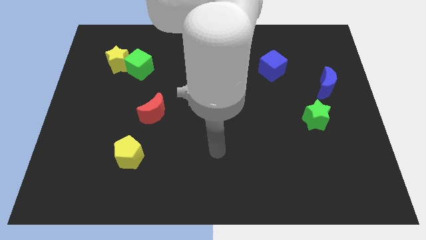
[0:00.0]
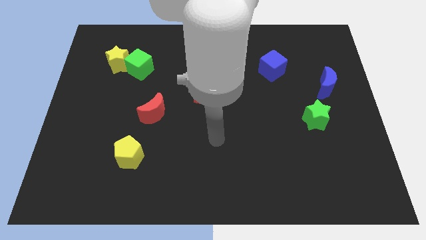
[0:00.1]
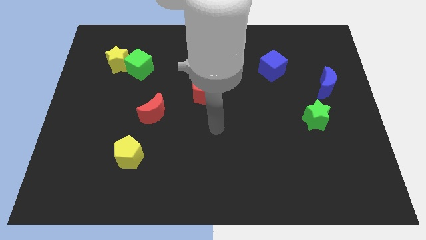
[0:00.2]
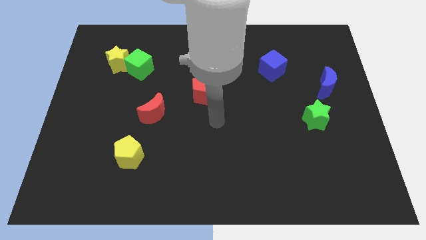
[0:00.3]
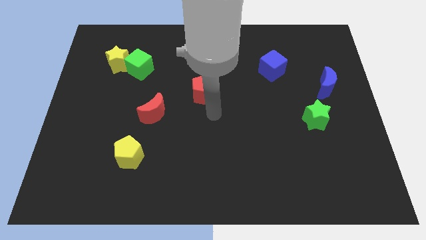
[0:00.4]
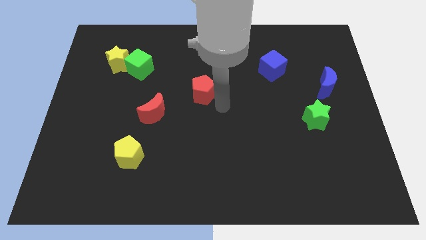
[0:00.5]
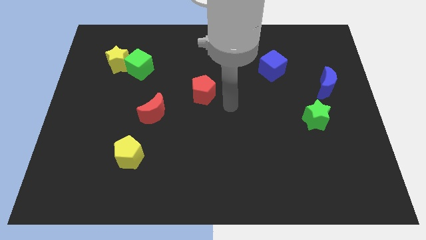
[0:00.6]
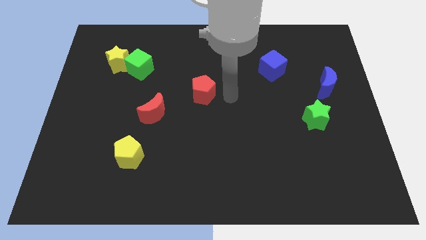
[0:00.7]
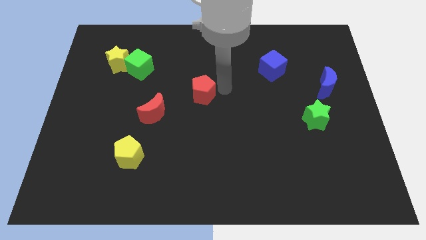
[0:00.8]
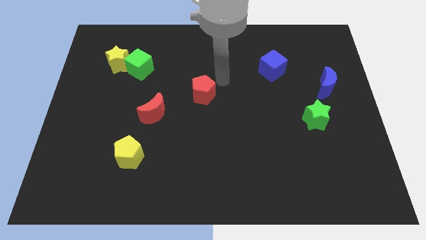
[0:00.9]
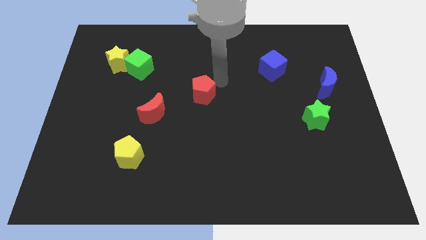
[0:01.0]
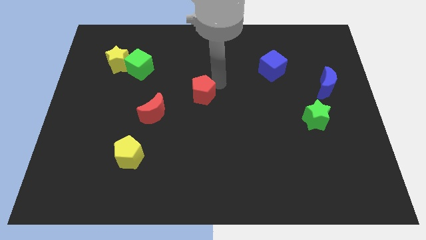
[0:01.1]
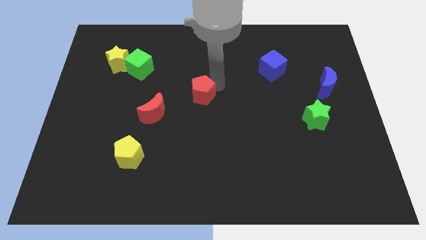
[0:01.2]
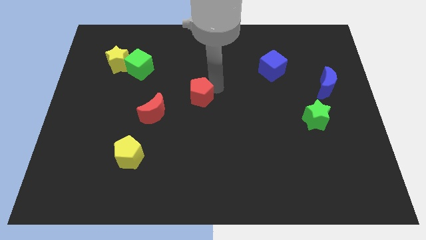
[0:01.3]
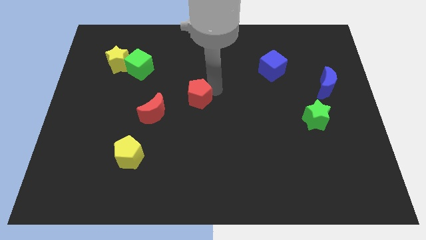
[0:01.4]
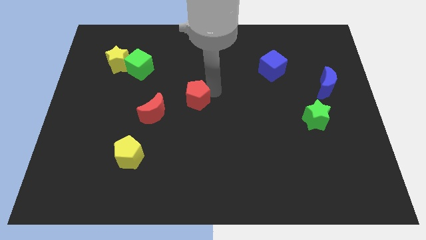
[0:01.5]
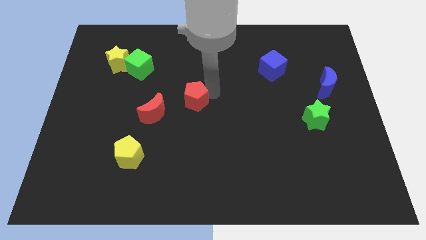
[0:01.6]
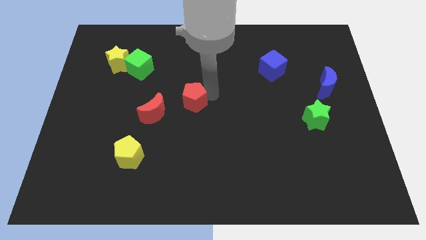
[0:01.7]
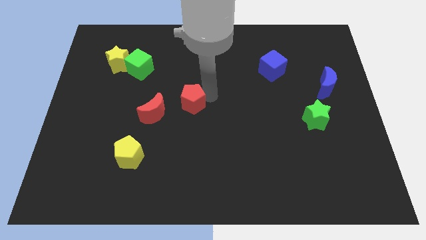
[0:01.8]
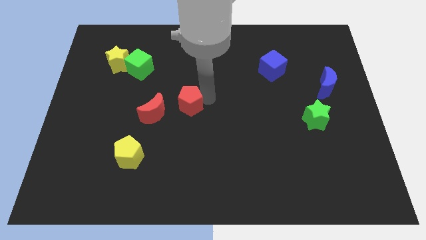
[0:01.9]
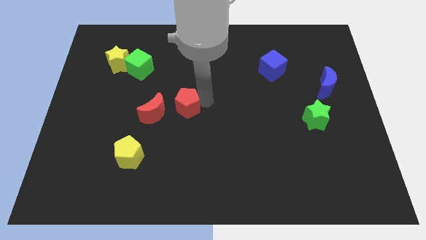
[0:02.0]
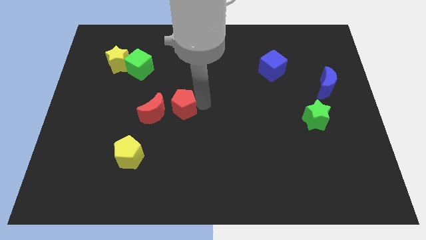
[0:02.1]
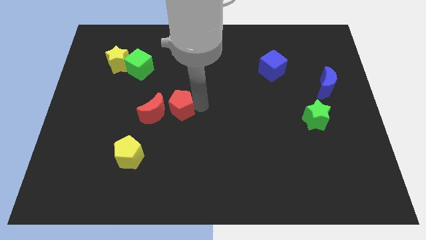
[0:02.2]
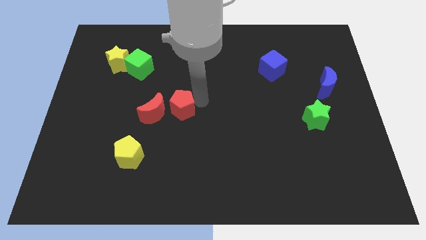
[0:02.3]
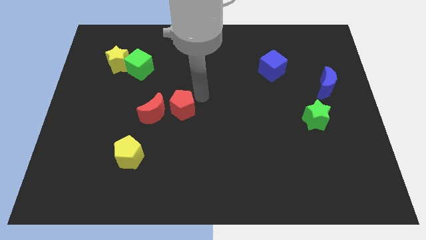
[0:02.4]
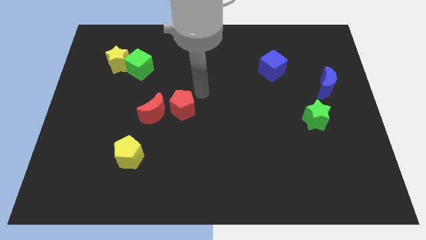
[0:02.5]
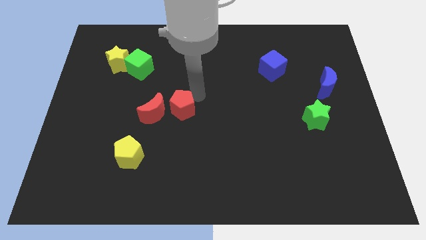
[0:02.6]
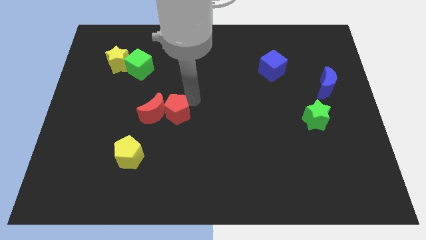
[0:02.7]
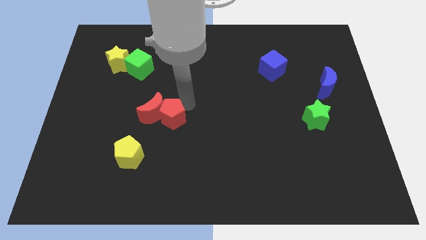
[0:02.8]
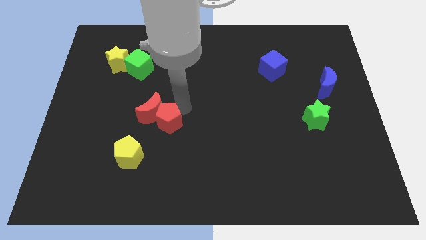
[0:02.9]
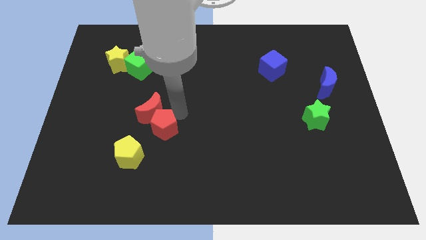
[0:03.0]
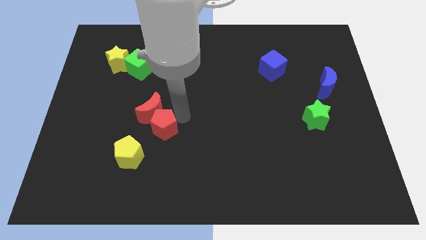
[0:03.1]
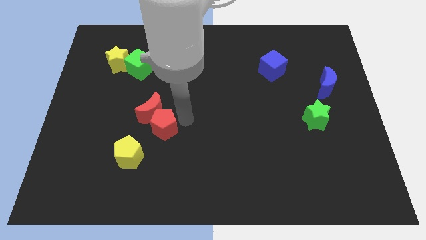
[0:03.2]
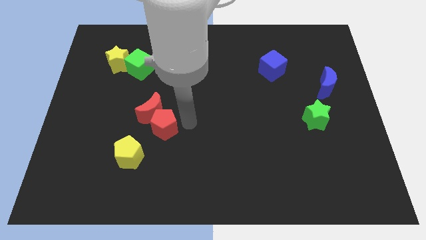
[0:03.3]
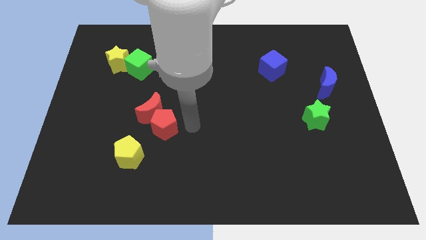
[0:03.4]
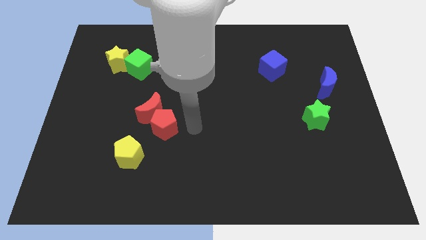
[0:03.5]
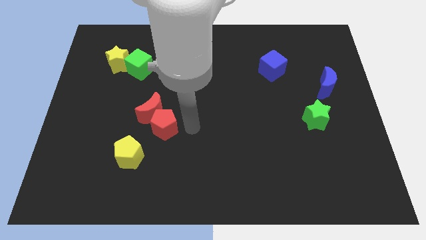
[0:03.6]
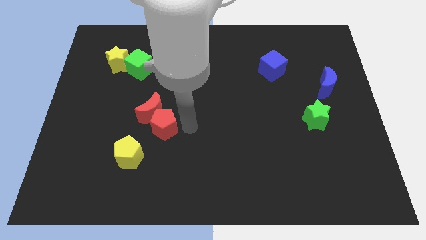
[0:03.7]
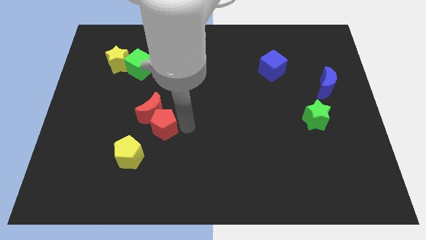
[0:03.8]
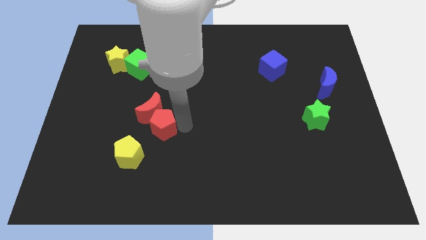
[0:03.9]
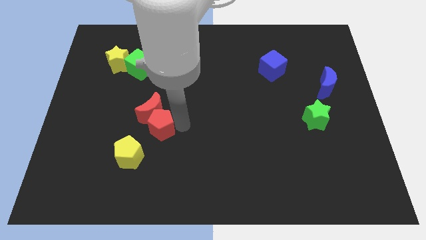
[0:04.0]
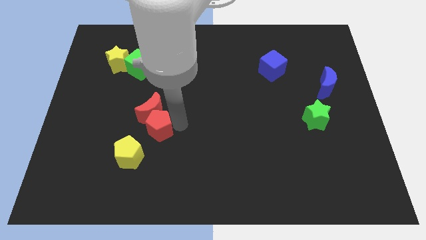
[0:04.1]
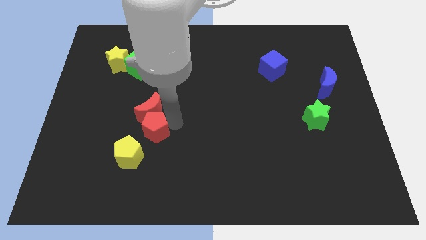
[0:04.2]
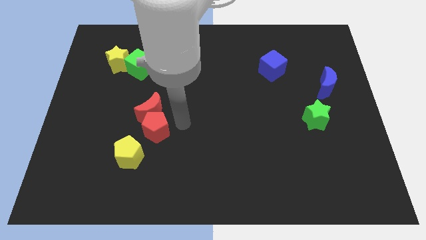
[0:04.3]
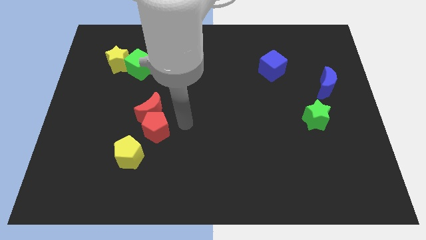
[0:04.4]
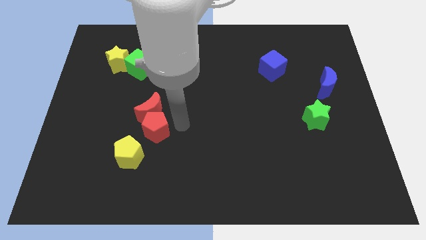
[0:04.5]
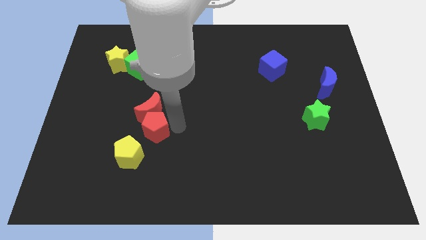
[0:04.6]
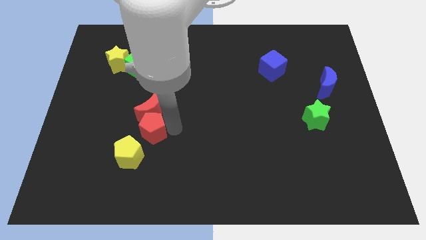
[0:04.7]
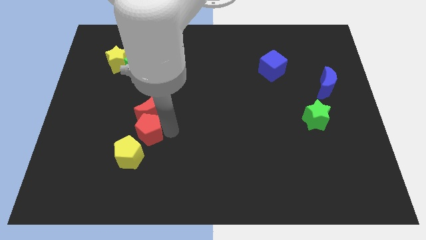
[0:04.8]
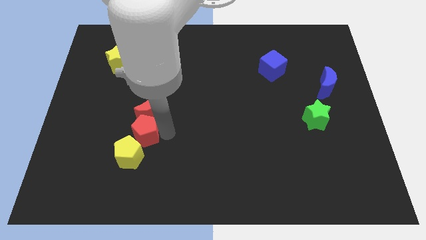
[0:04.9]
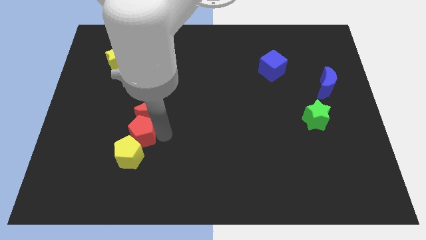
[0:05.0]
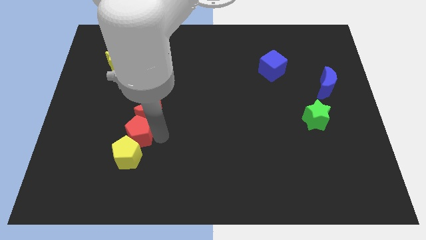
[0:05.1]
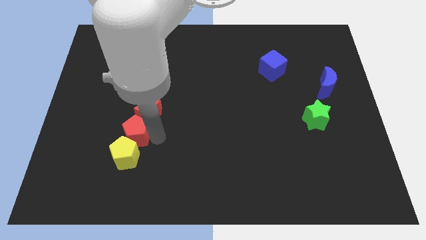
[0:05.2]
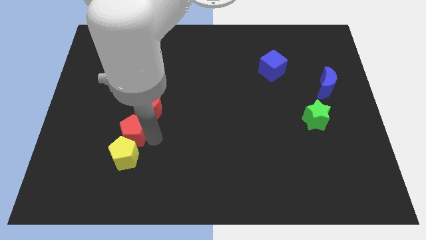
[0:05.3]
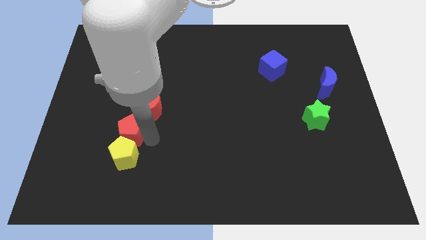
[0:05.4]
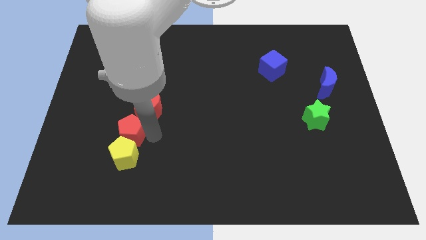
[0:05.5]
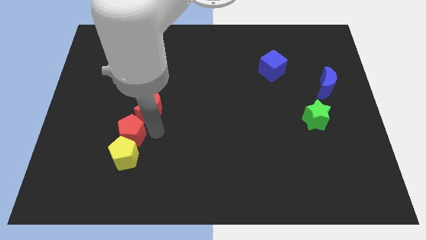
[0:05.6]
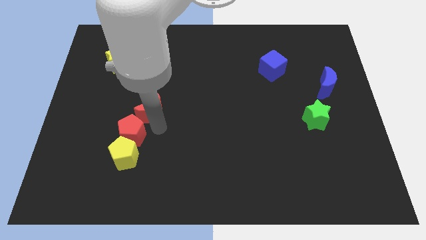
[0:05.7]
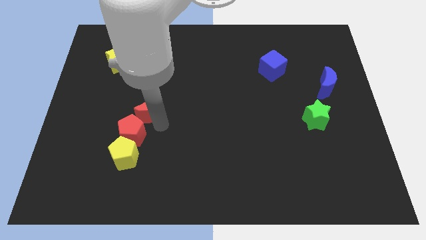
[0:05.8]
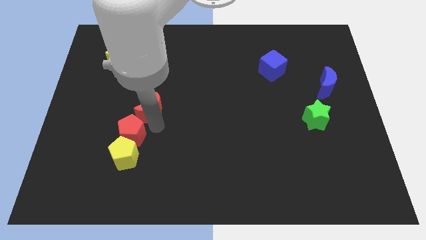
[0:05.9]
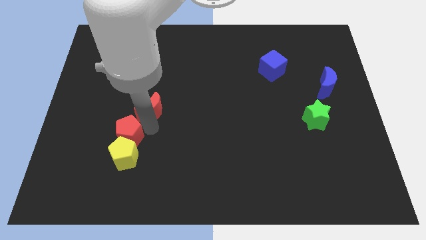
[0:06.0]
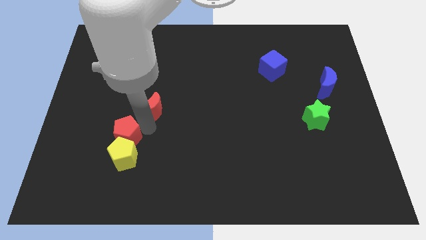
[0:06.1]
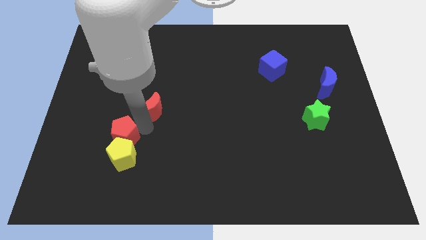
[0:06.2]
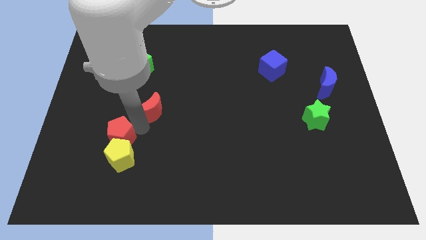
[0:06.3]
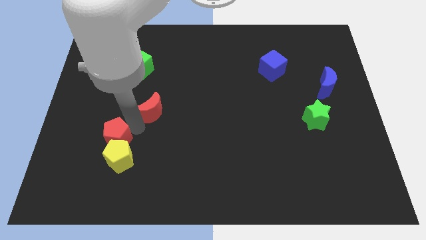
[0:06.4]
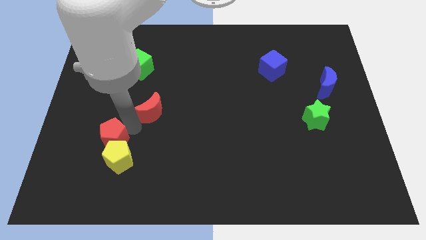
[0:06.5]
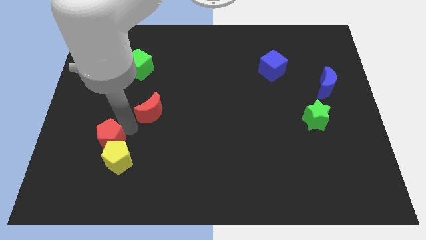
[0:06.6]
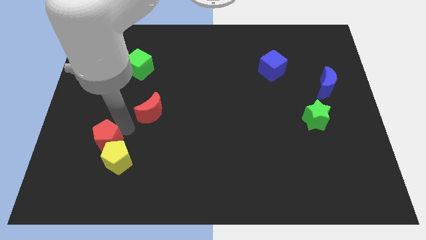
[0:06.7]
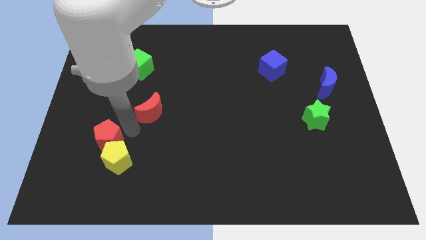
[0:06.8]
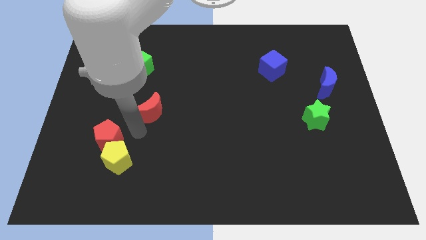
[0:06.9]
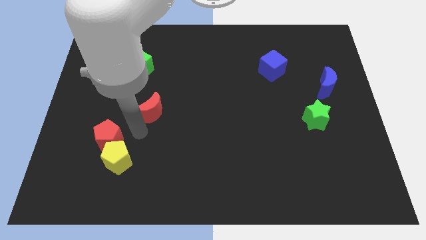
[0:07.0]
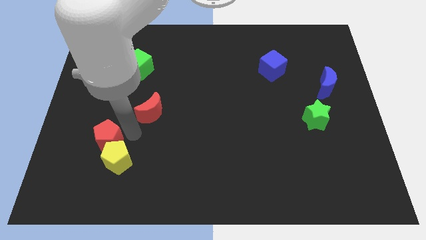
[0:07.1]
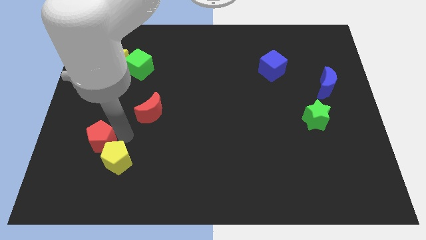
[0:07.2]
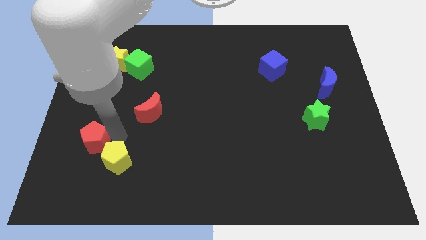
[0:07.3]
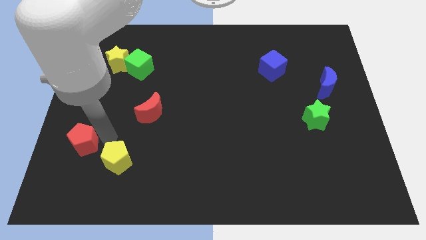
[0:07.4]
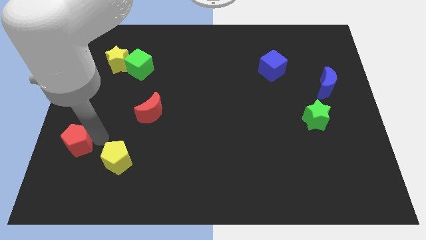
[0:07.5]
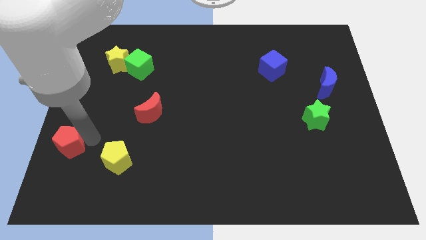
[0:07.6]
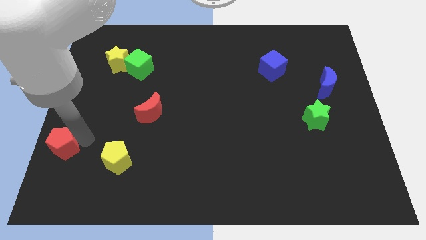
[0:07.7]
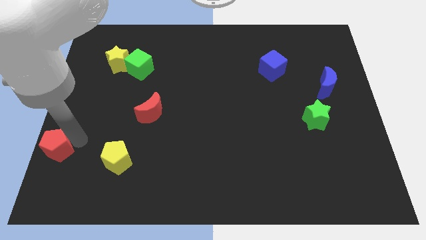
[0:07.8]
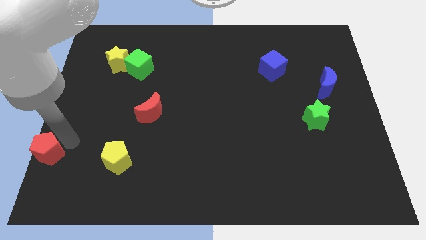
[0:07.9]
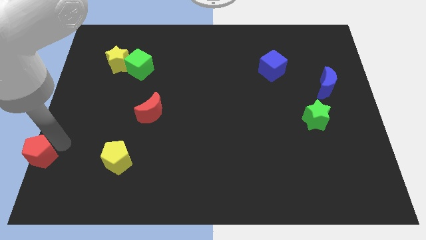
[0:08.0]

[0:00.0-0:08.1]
put the red pentagon to the bottom left
